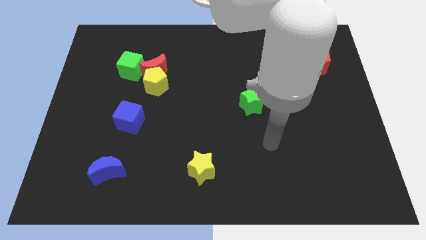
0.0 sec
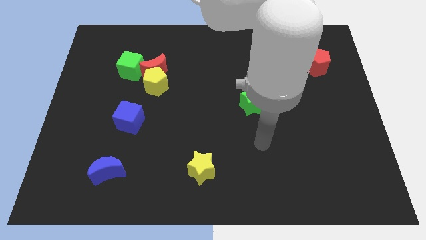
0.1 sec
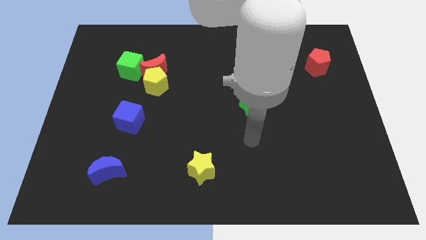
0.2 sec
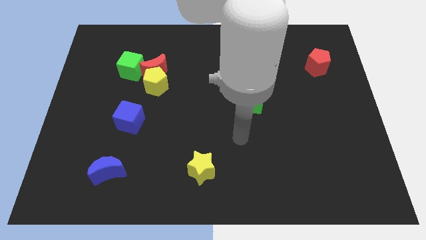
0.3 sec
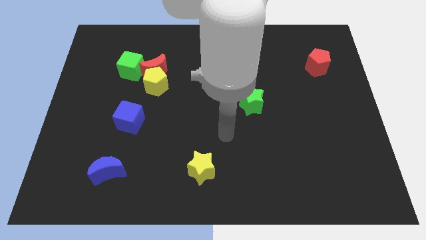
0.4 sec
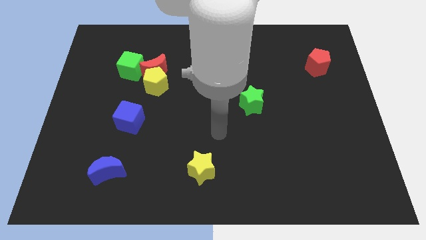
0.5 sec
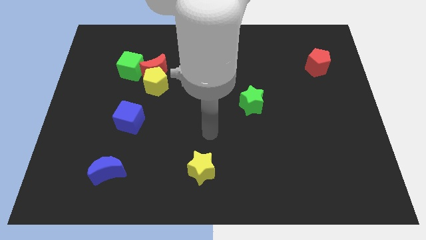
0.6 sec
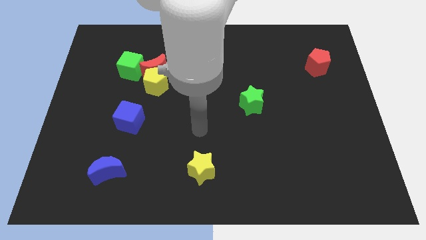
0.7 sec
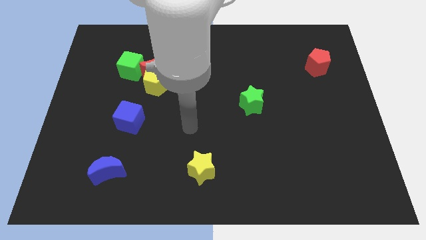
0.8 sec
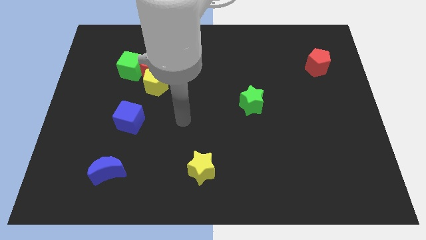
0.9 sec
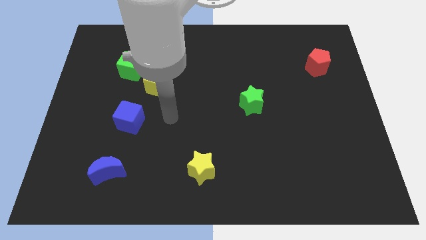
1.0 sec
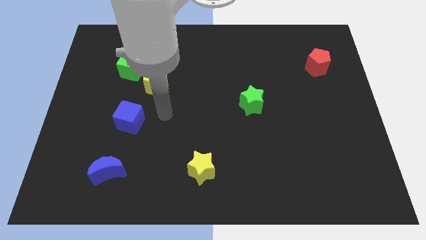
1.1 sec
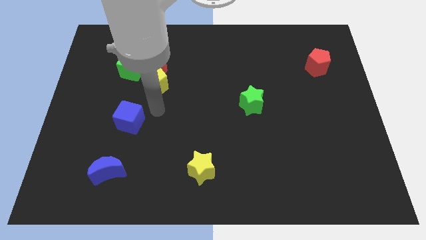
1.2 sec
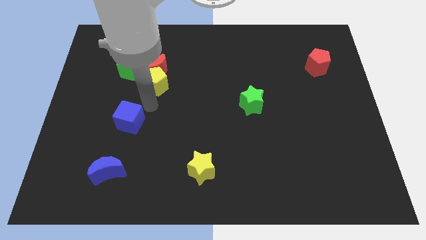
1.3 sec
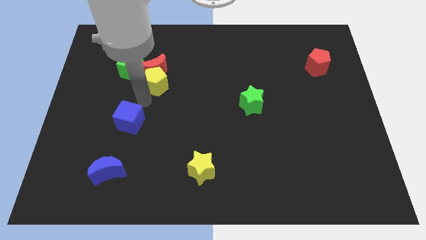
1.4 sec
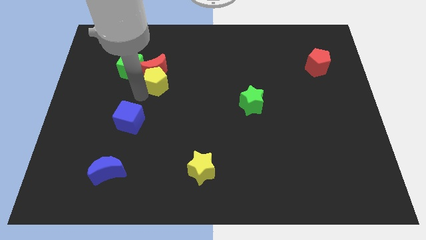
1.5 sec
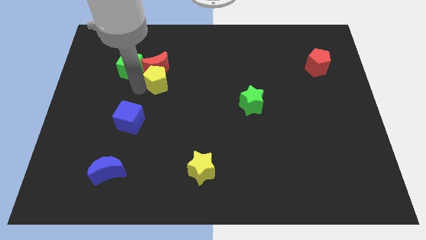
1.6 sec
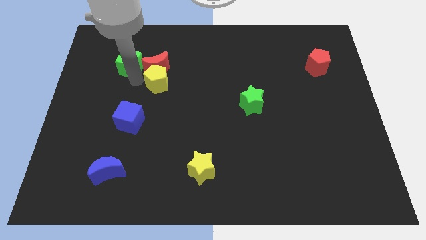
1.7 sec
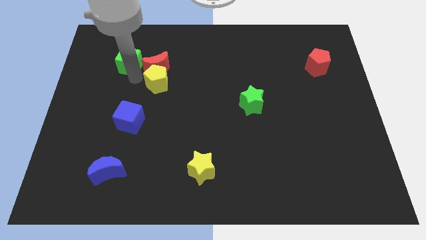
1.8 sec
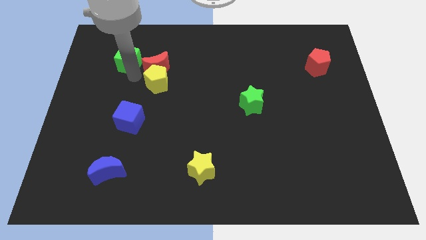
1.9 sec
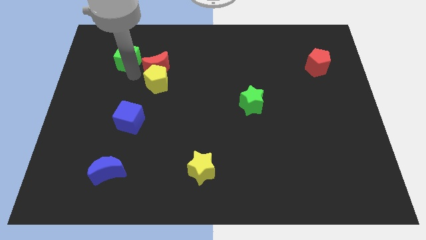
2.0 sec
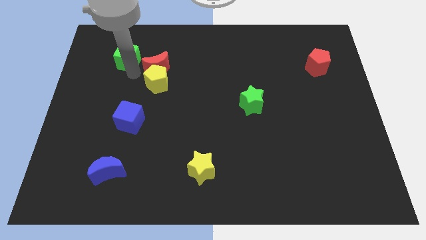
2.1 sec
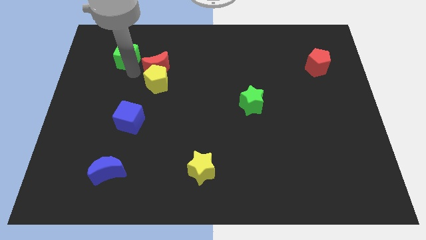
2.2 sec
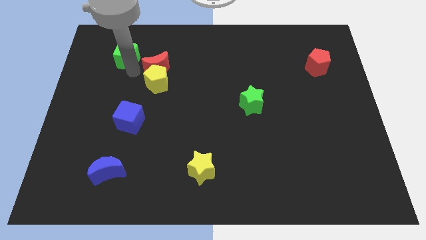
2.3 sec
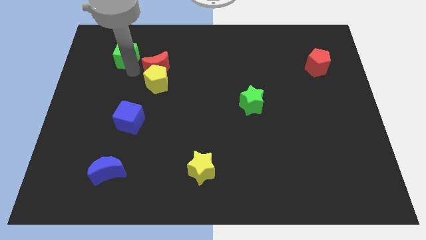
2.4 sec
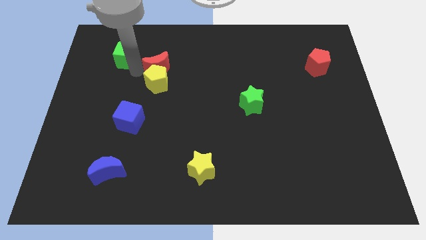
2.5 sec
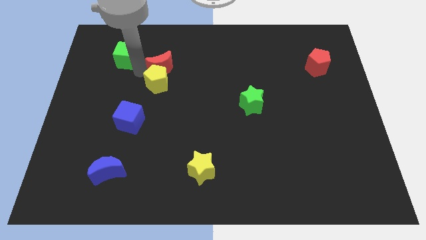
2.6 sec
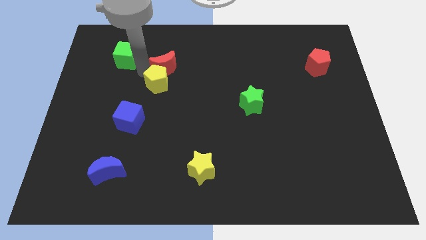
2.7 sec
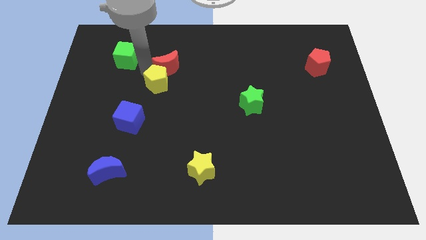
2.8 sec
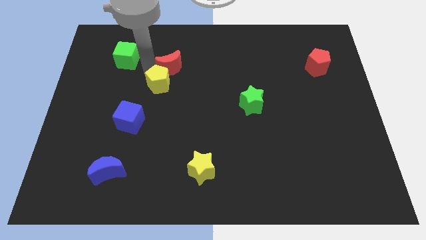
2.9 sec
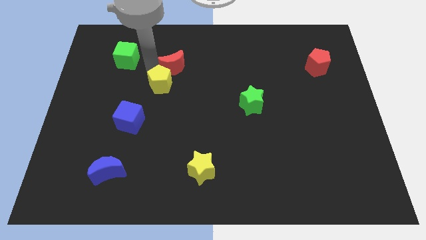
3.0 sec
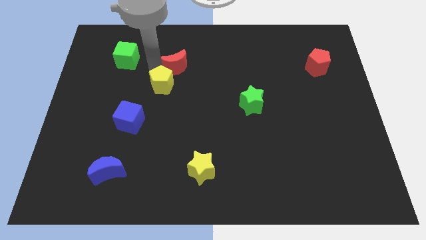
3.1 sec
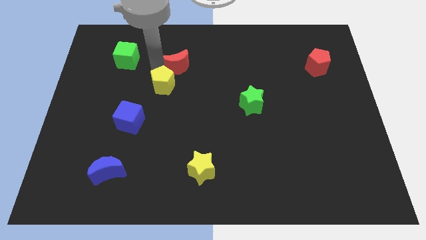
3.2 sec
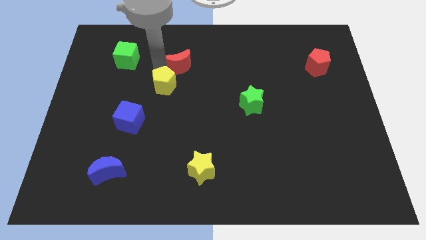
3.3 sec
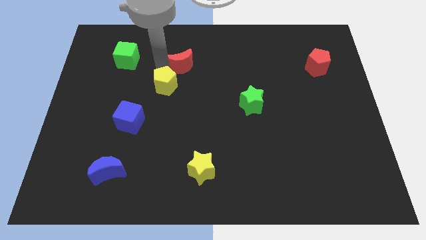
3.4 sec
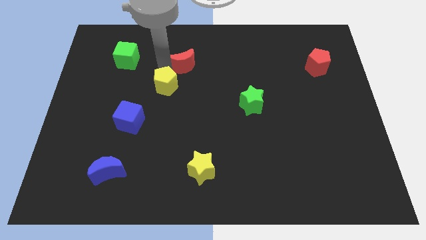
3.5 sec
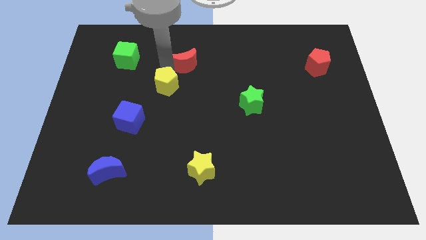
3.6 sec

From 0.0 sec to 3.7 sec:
pull the red moon apart from the yellow pentagon and green cube

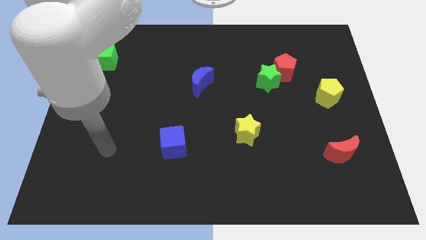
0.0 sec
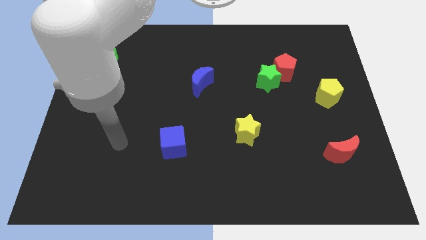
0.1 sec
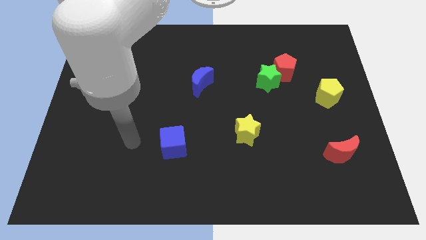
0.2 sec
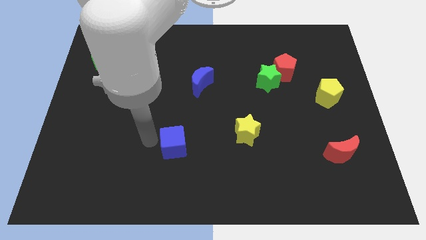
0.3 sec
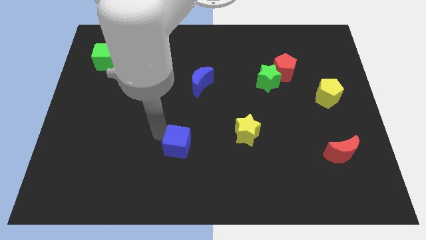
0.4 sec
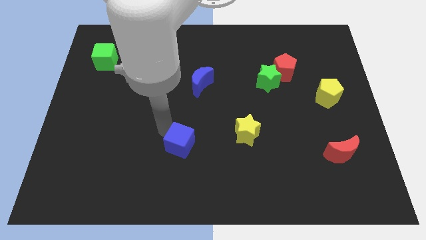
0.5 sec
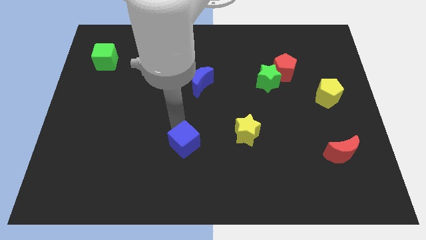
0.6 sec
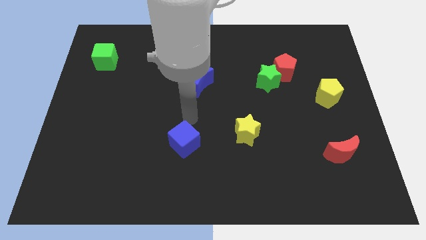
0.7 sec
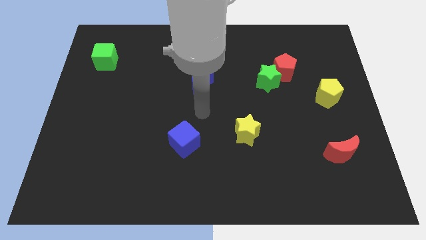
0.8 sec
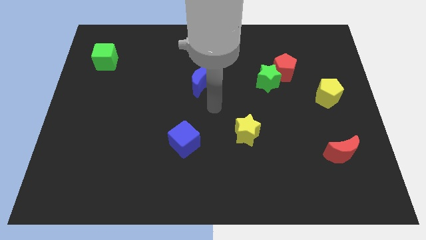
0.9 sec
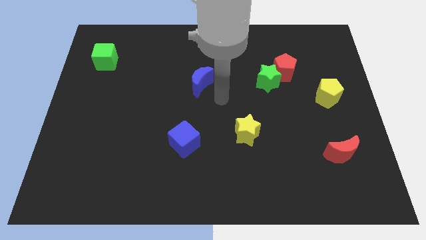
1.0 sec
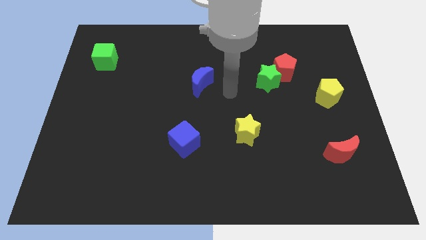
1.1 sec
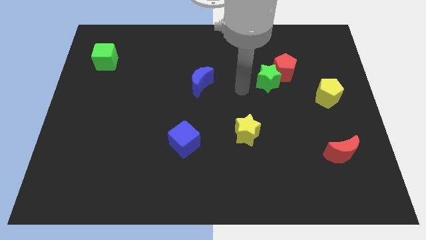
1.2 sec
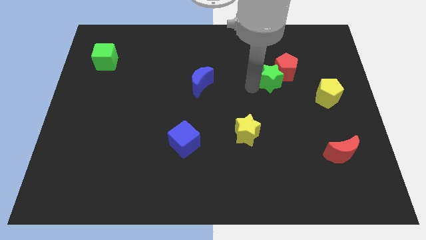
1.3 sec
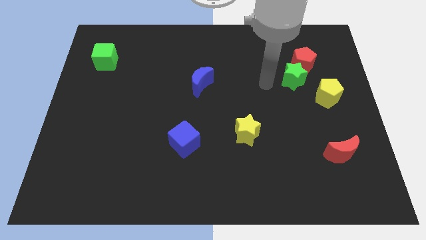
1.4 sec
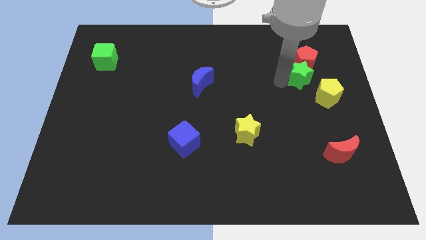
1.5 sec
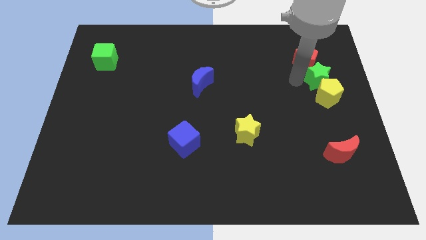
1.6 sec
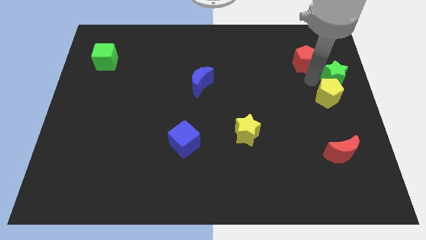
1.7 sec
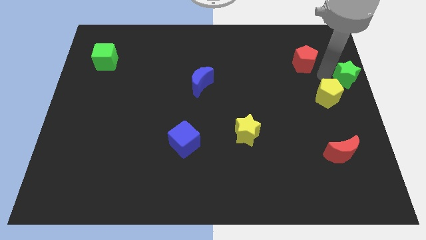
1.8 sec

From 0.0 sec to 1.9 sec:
separate the red pentagon from the green star

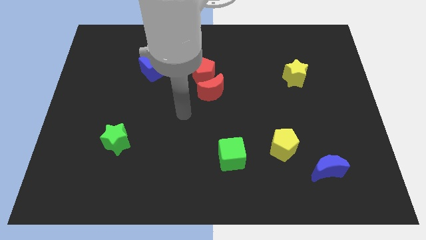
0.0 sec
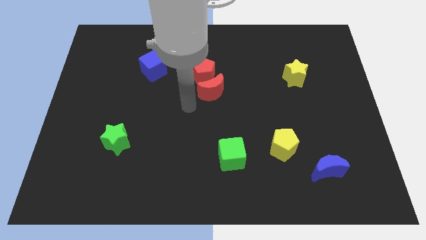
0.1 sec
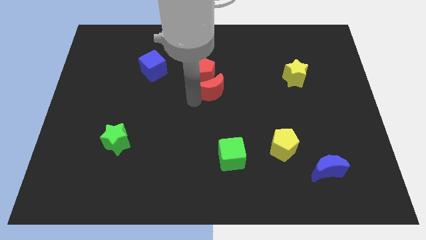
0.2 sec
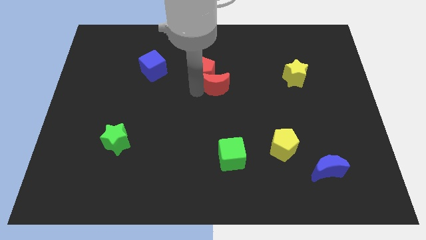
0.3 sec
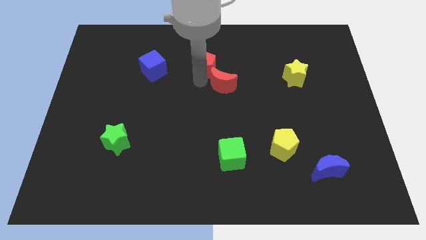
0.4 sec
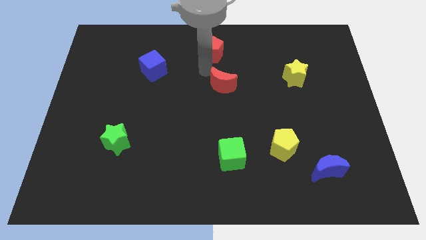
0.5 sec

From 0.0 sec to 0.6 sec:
move the red moon away from the red pentagon

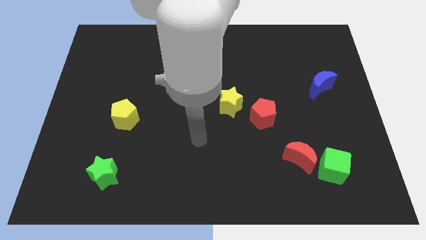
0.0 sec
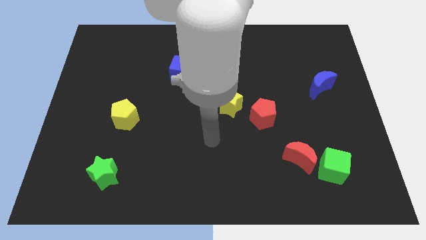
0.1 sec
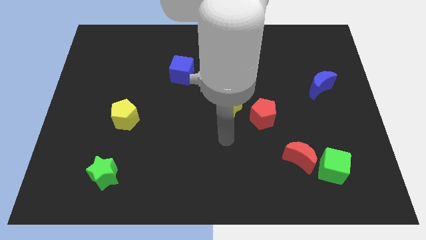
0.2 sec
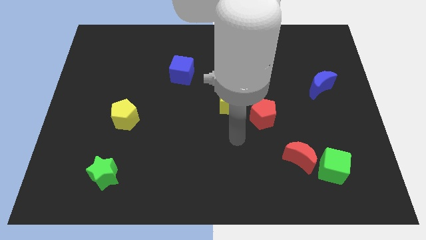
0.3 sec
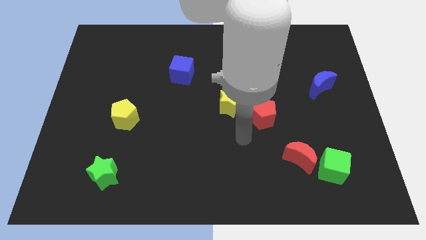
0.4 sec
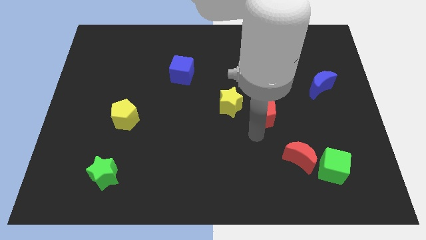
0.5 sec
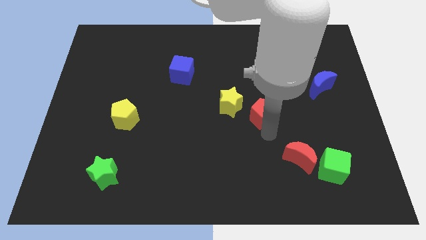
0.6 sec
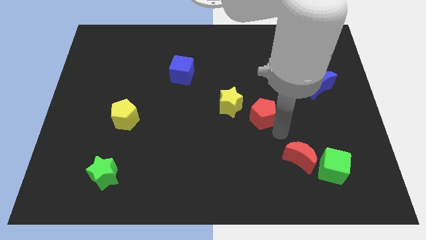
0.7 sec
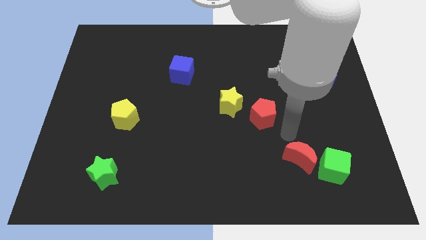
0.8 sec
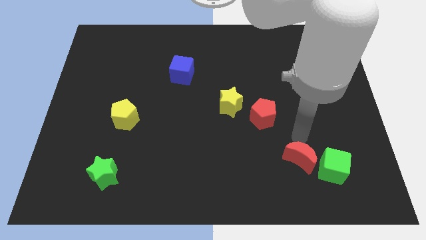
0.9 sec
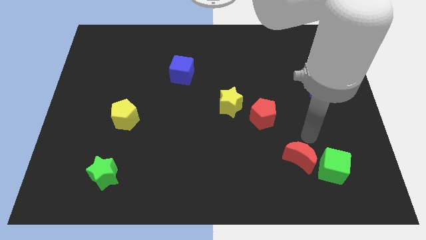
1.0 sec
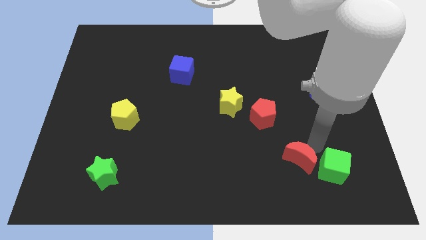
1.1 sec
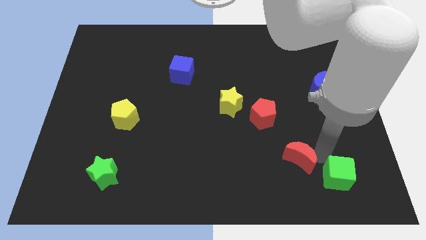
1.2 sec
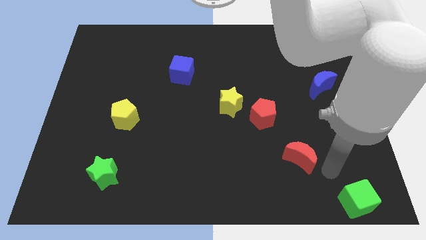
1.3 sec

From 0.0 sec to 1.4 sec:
separate the red moon from the green cube

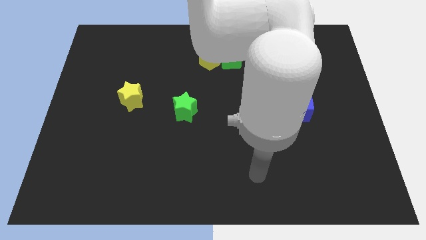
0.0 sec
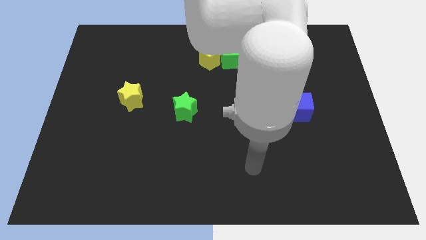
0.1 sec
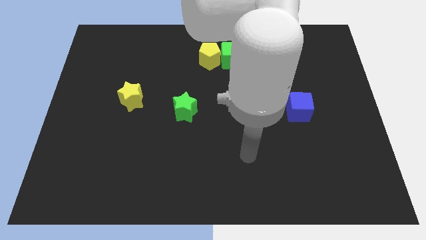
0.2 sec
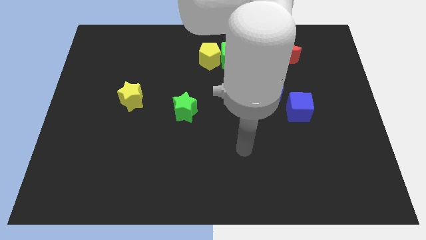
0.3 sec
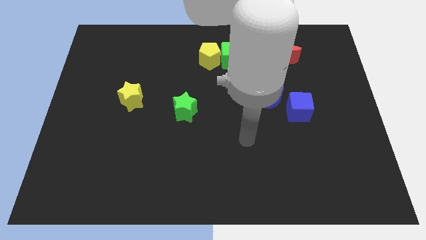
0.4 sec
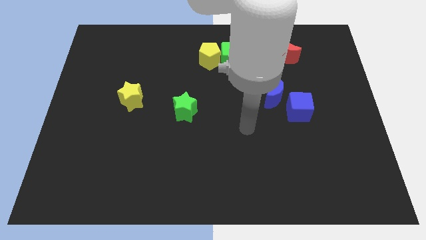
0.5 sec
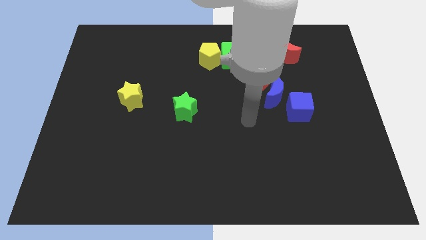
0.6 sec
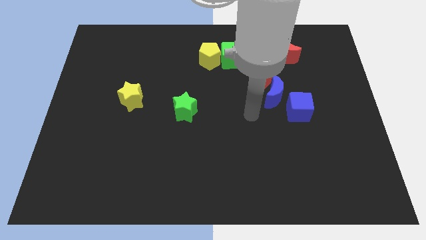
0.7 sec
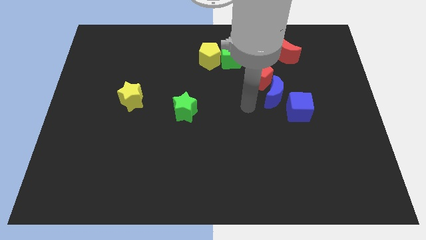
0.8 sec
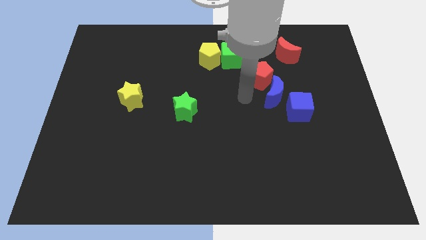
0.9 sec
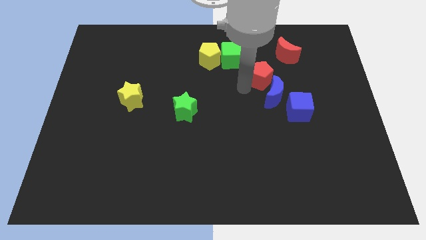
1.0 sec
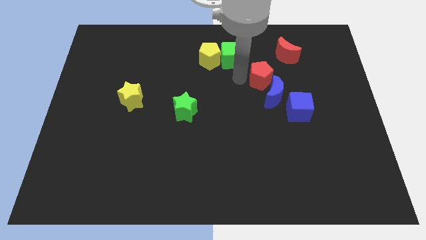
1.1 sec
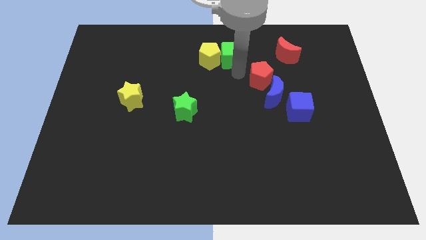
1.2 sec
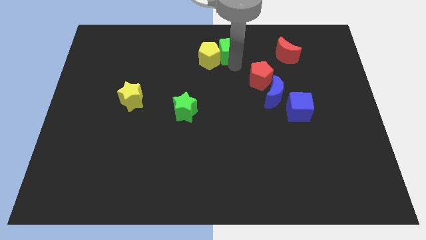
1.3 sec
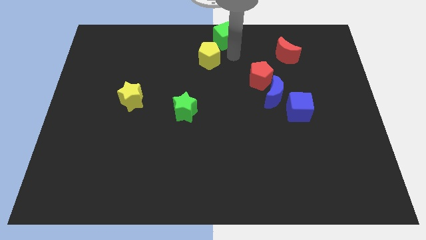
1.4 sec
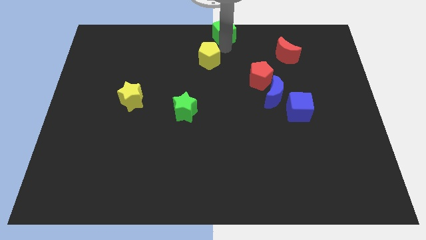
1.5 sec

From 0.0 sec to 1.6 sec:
pull the yellow pentagon apart from the green cube

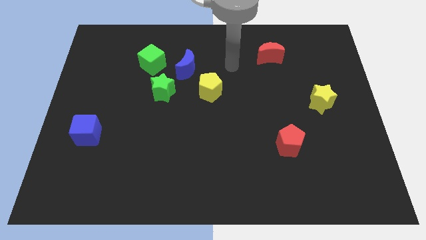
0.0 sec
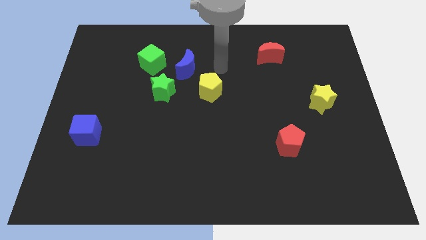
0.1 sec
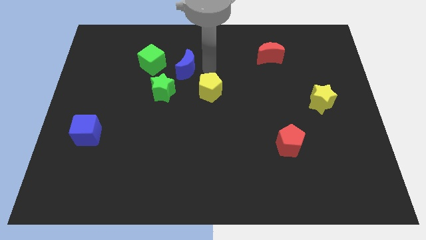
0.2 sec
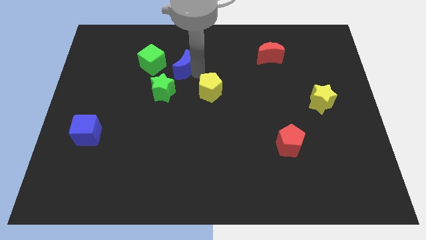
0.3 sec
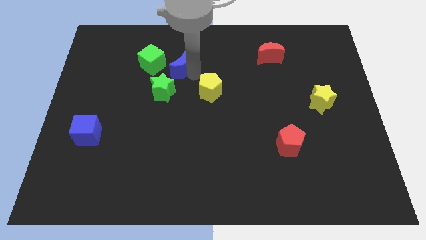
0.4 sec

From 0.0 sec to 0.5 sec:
move the yellow pentagon away from the blue moon
